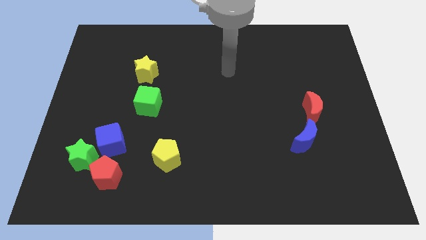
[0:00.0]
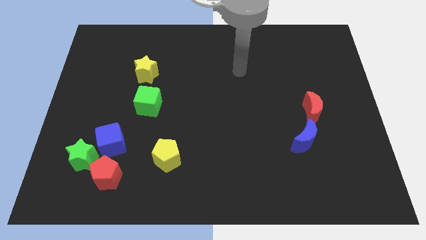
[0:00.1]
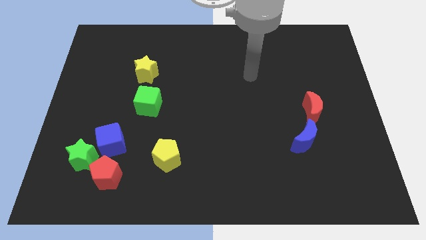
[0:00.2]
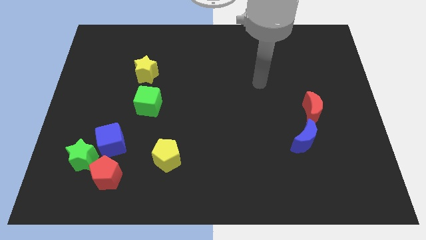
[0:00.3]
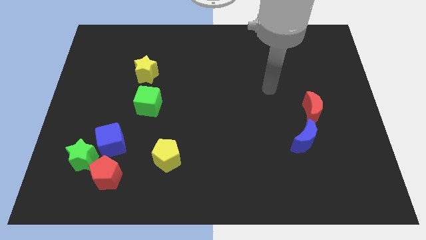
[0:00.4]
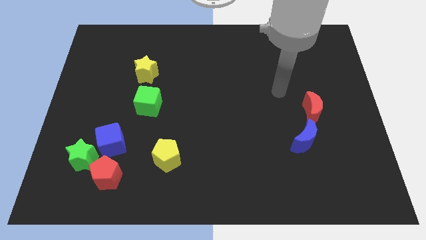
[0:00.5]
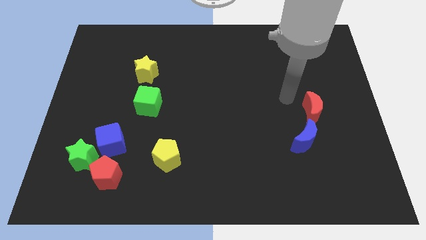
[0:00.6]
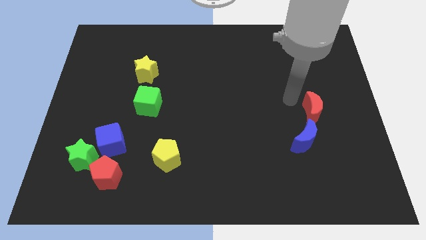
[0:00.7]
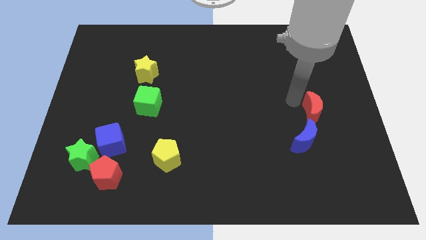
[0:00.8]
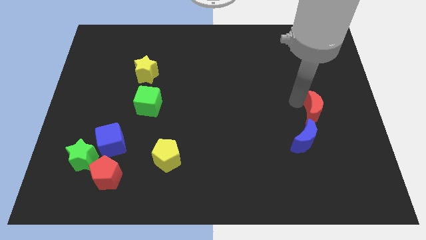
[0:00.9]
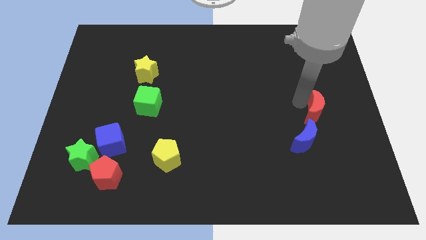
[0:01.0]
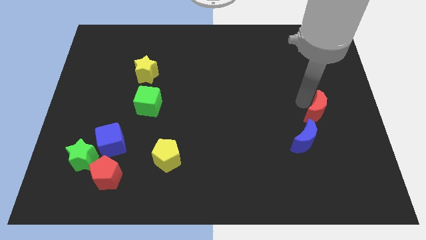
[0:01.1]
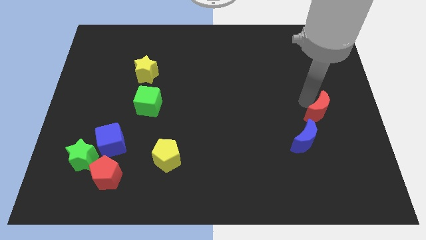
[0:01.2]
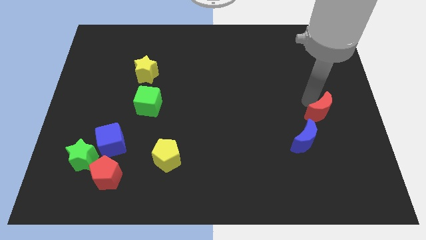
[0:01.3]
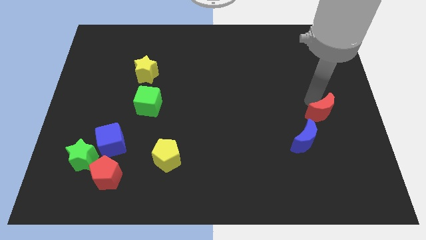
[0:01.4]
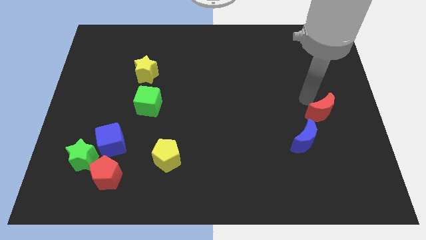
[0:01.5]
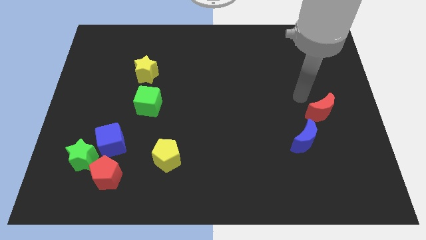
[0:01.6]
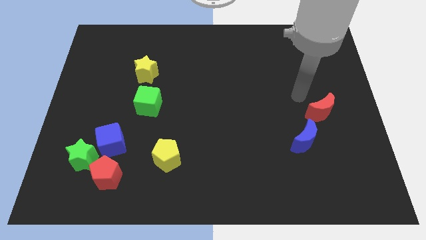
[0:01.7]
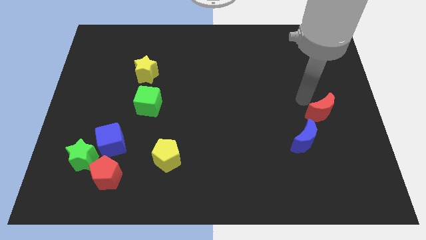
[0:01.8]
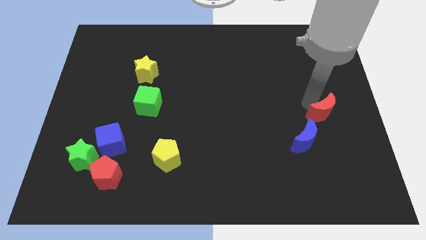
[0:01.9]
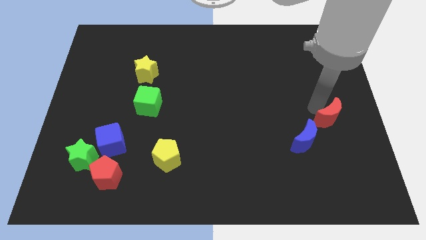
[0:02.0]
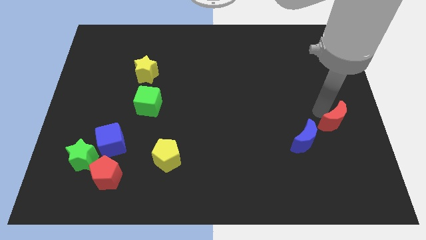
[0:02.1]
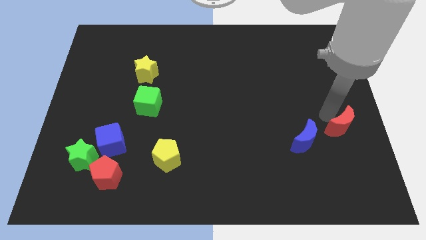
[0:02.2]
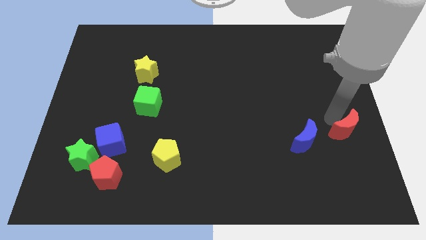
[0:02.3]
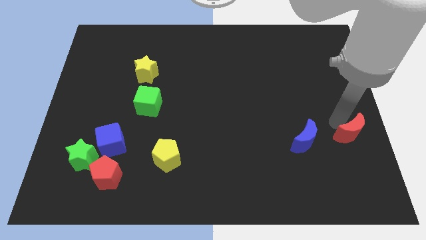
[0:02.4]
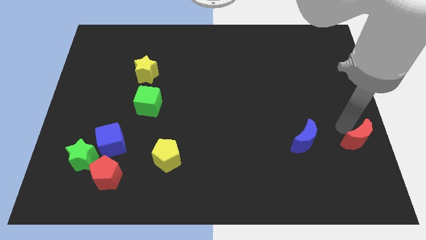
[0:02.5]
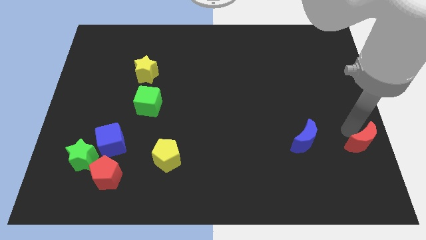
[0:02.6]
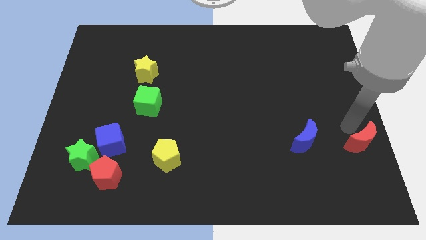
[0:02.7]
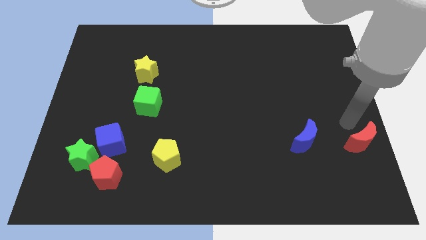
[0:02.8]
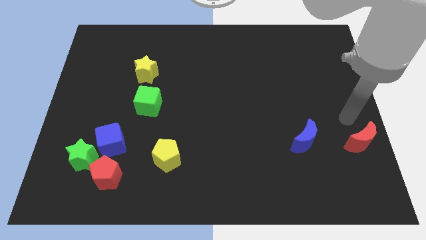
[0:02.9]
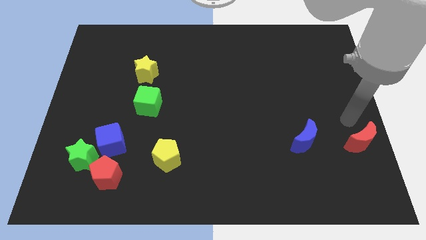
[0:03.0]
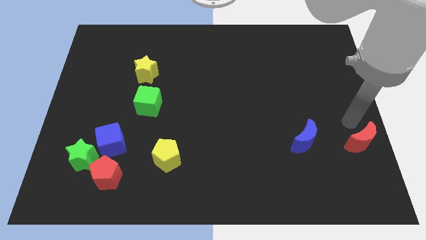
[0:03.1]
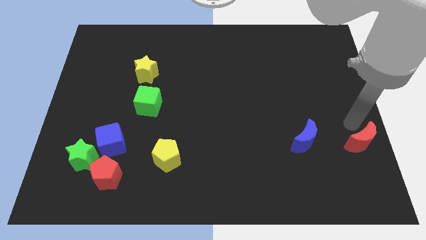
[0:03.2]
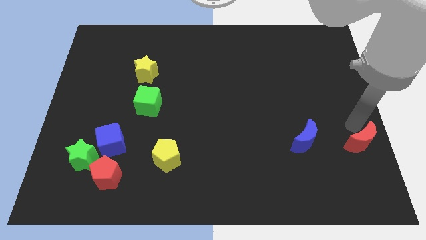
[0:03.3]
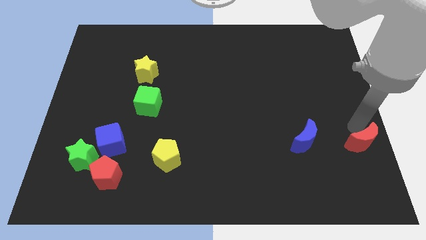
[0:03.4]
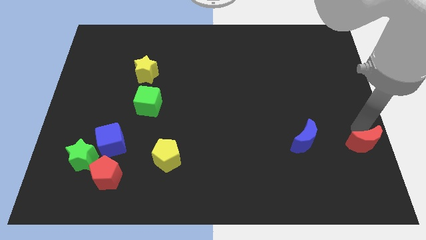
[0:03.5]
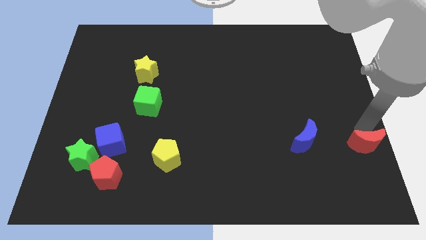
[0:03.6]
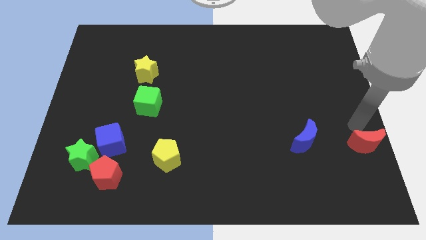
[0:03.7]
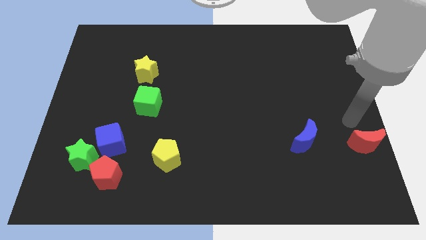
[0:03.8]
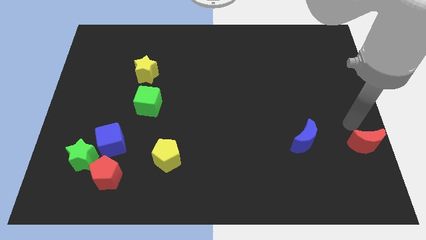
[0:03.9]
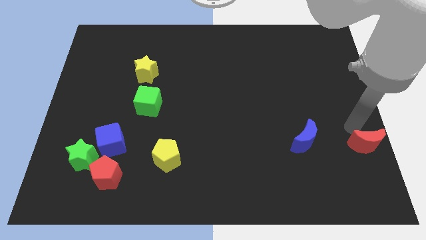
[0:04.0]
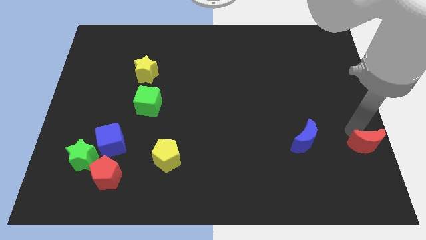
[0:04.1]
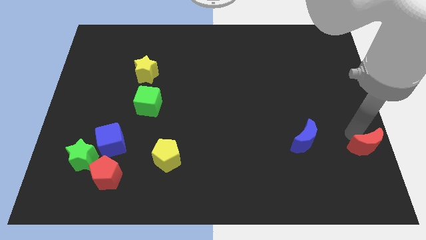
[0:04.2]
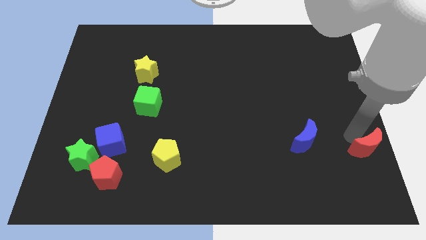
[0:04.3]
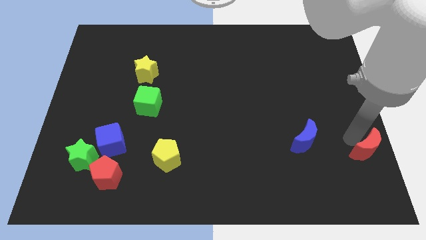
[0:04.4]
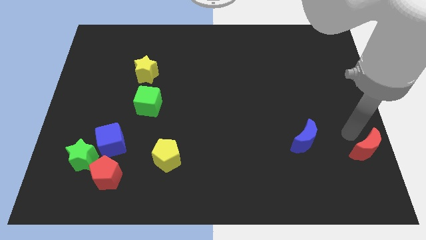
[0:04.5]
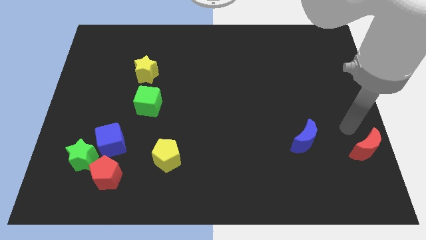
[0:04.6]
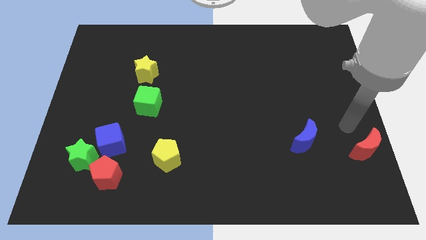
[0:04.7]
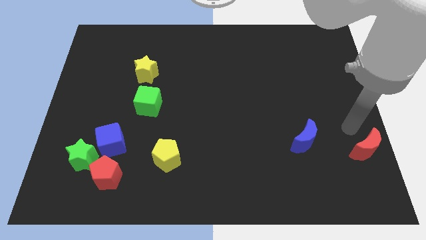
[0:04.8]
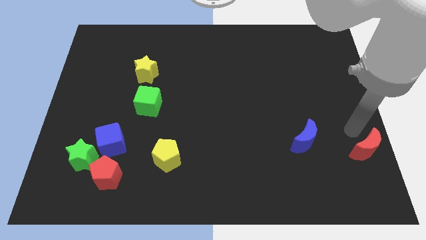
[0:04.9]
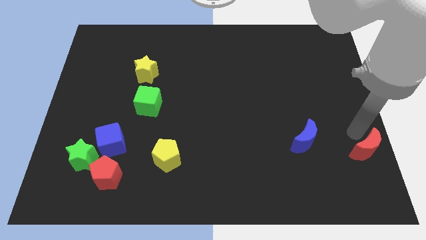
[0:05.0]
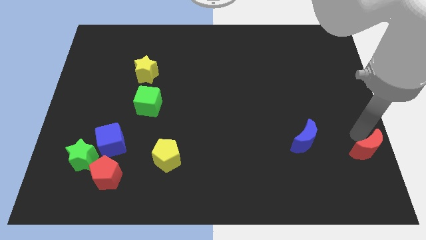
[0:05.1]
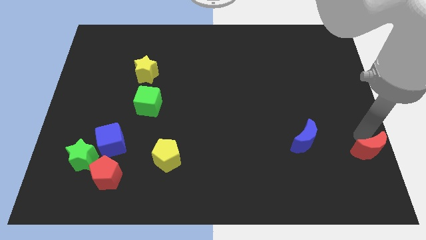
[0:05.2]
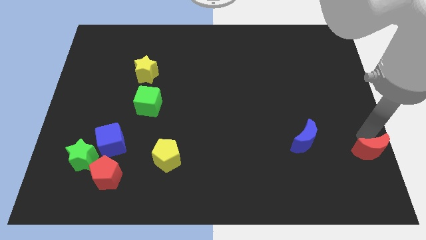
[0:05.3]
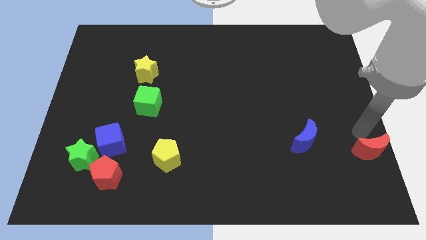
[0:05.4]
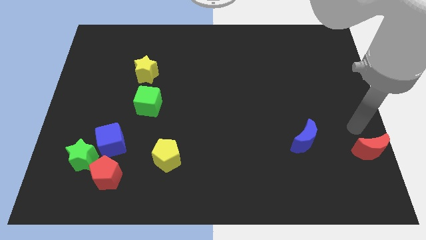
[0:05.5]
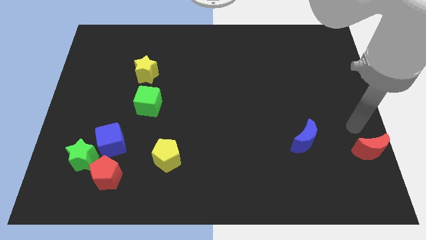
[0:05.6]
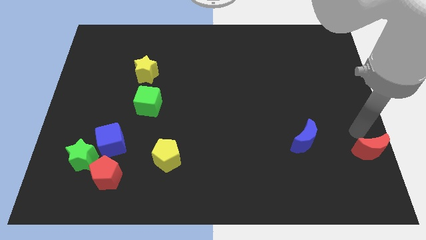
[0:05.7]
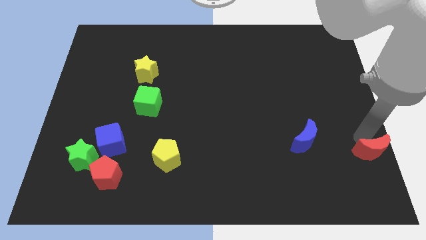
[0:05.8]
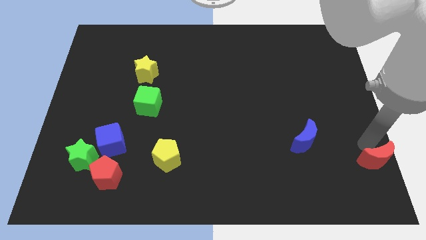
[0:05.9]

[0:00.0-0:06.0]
put the red moon to the bottom right of the board
